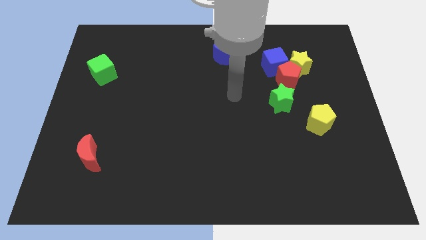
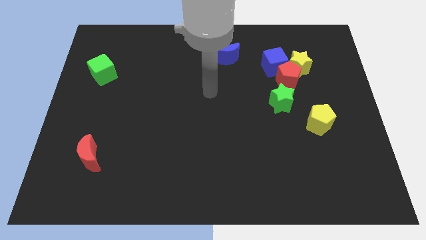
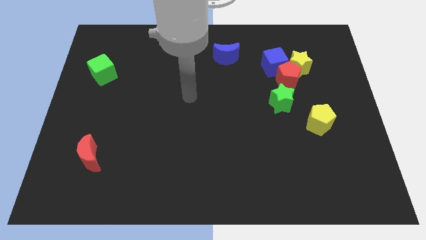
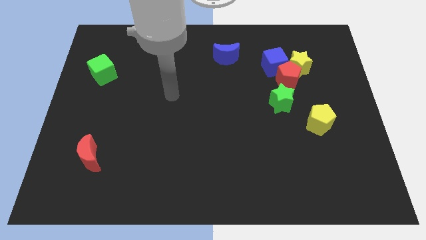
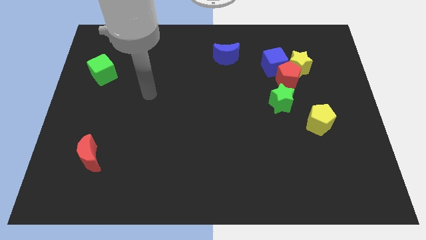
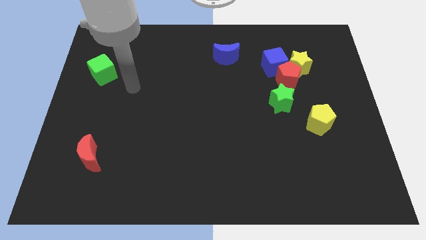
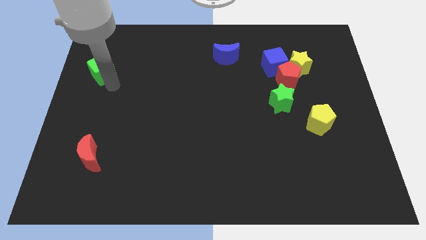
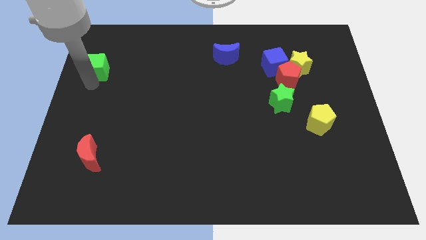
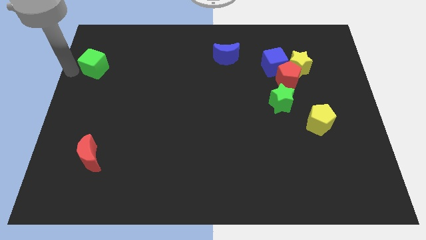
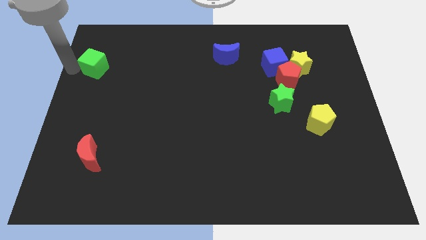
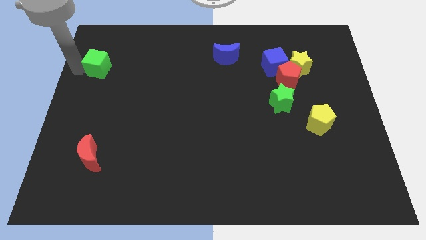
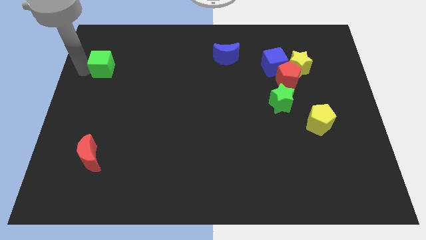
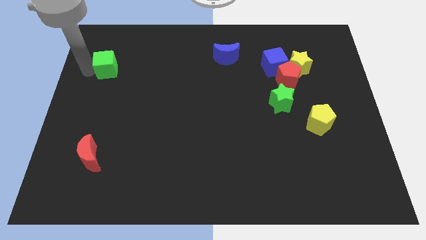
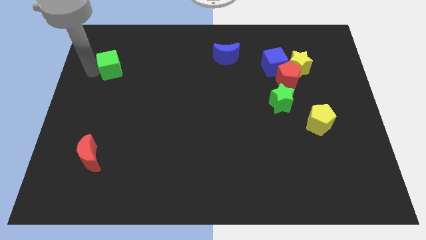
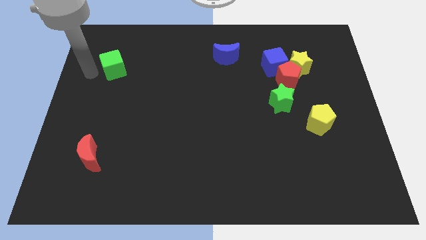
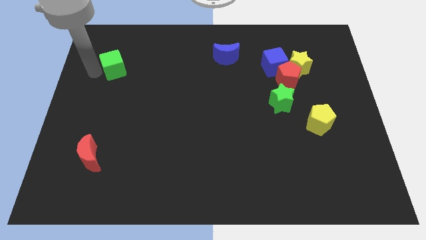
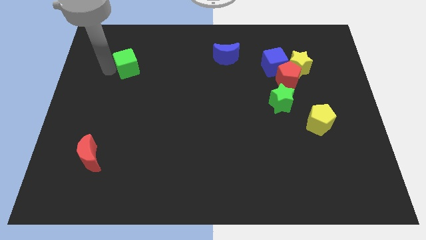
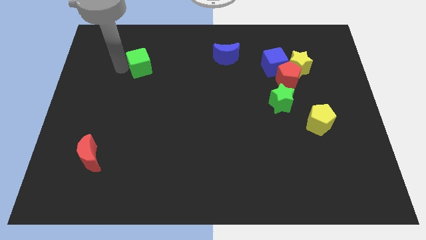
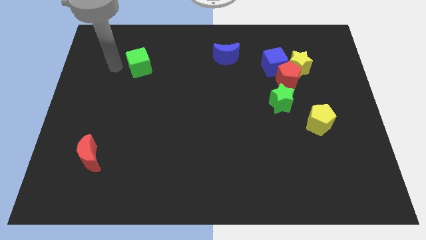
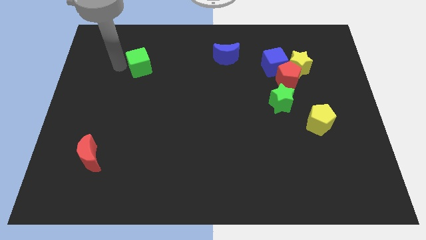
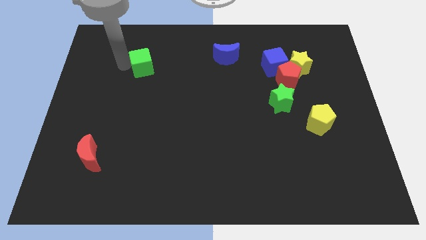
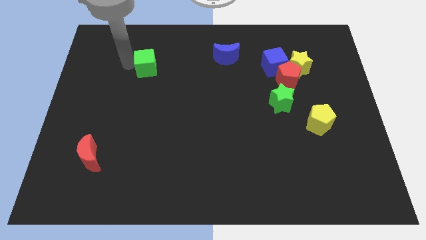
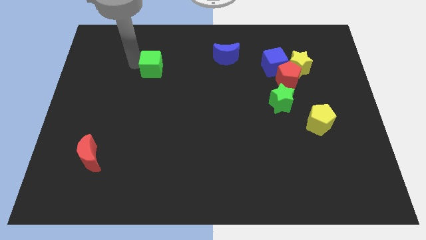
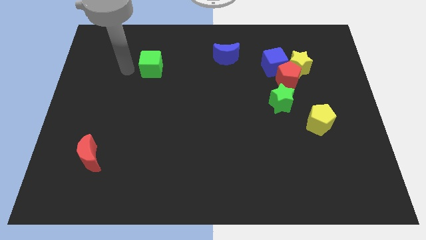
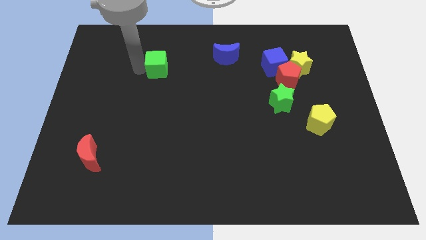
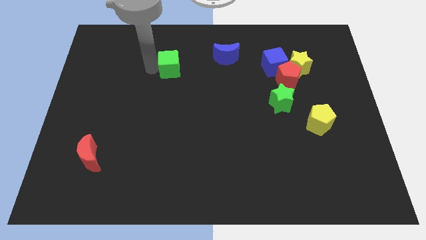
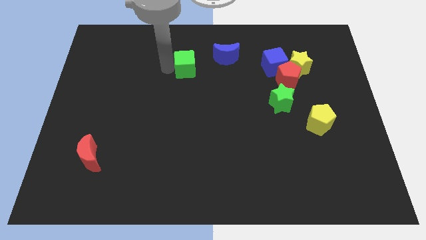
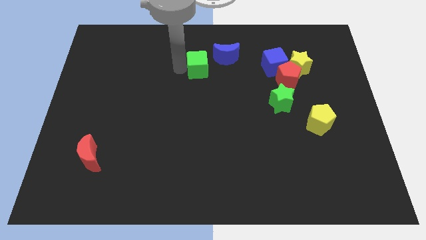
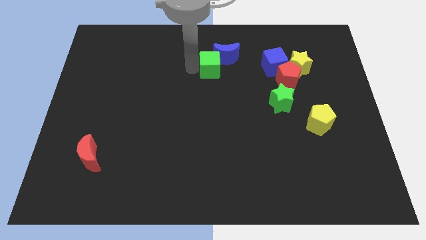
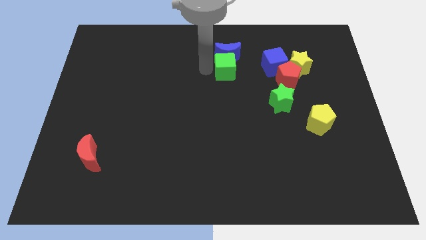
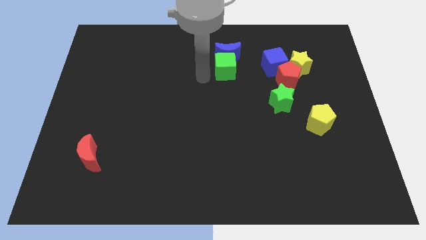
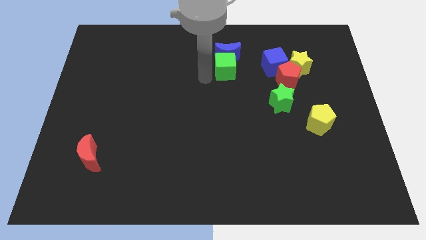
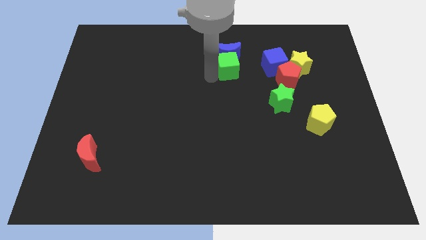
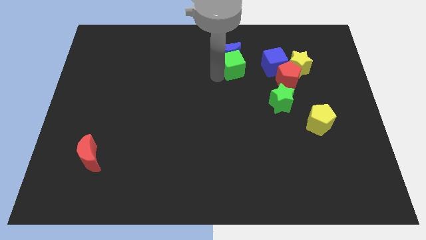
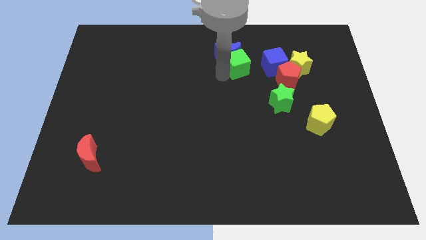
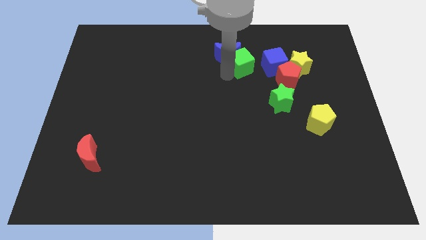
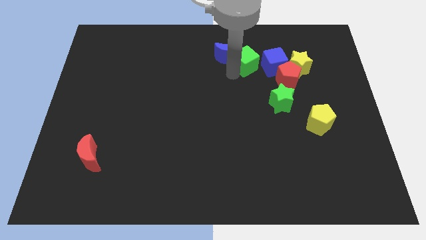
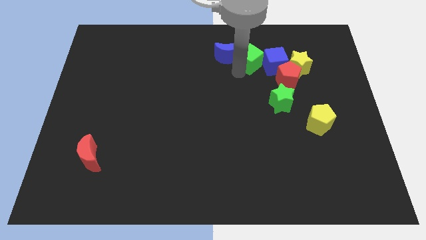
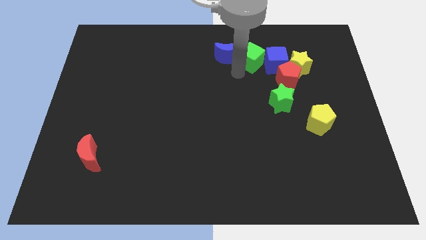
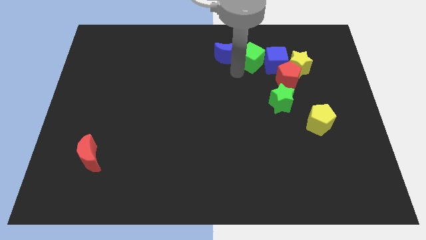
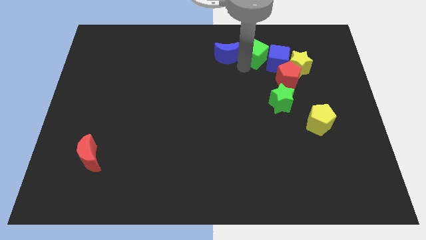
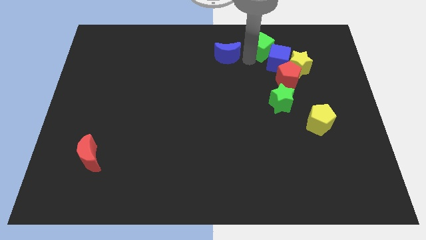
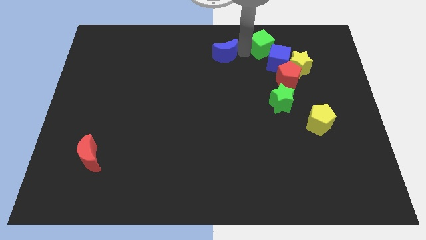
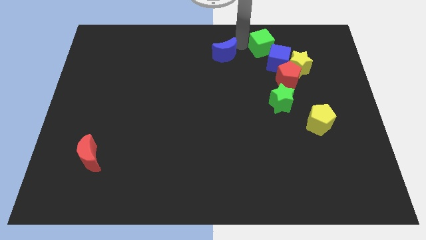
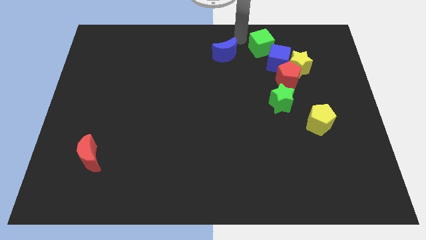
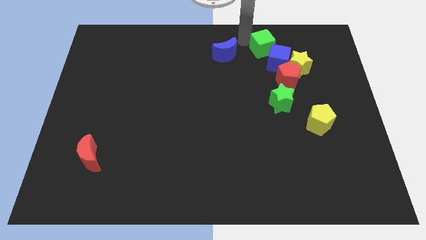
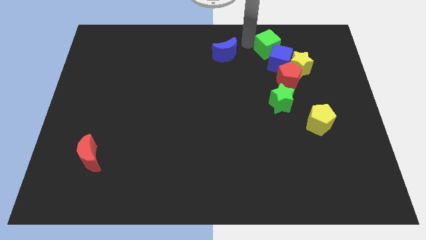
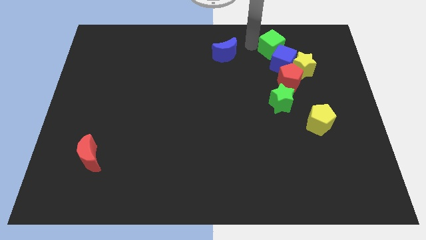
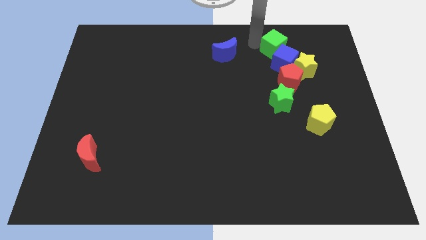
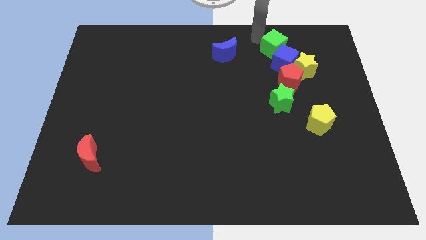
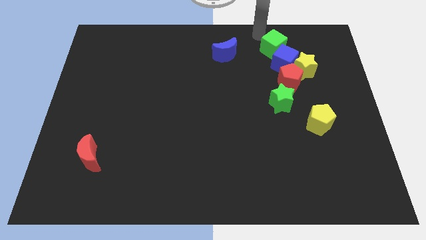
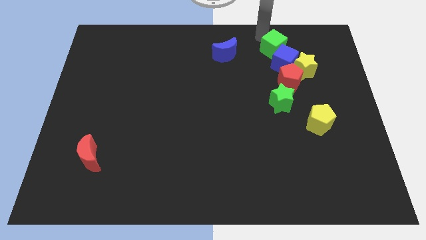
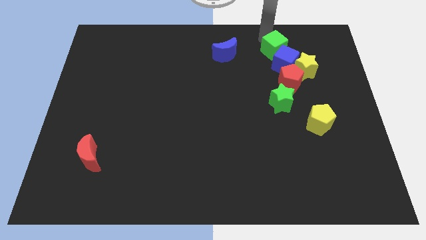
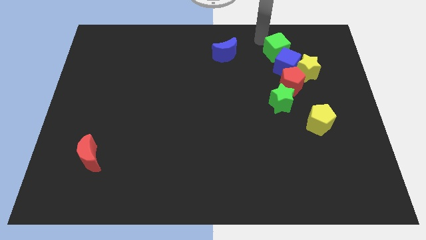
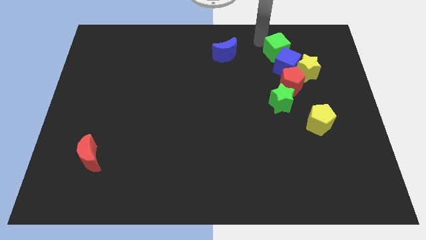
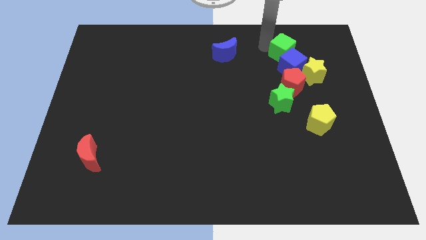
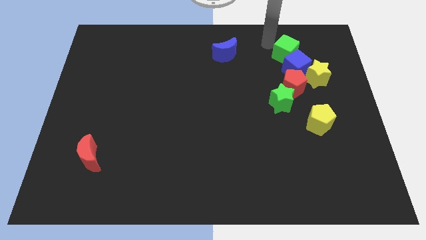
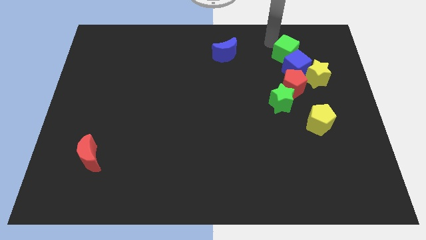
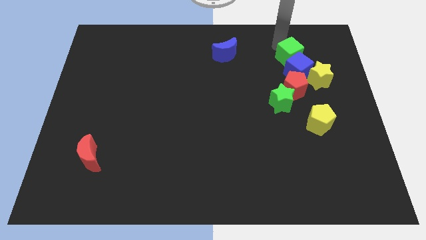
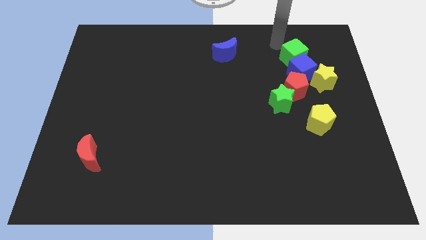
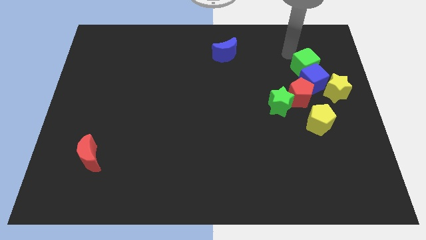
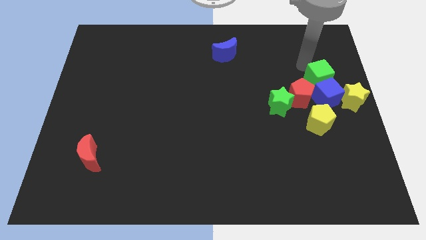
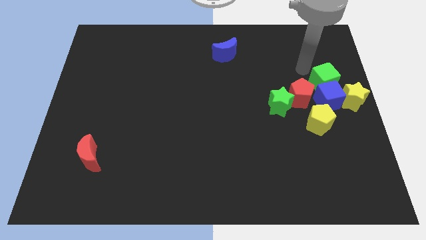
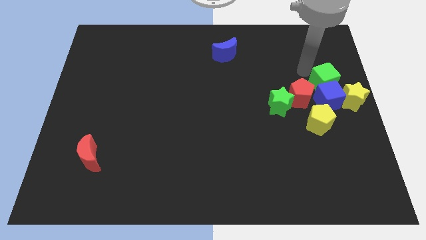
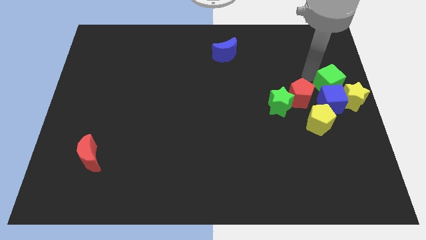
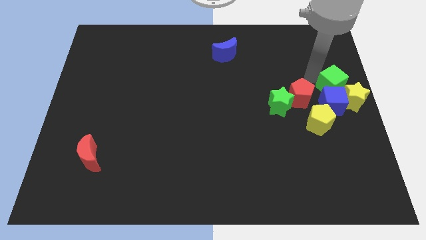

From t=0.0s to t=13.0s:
move the green cube towards the yellow star
